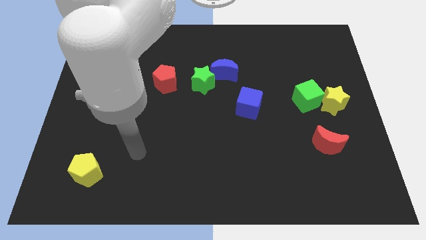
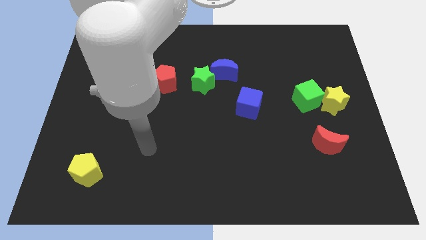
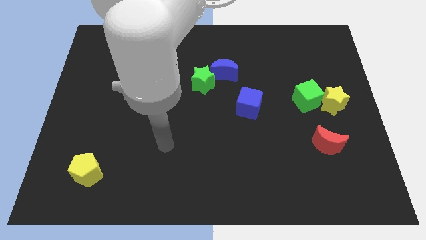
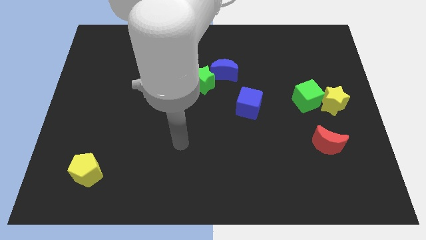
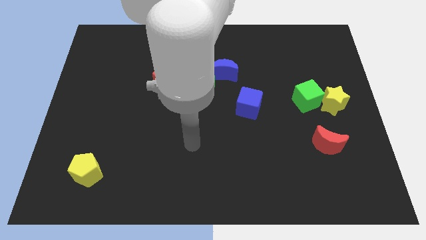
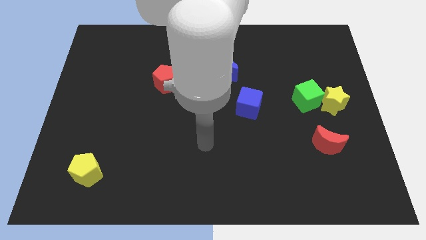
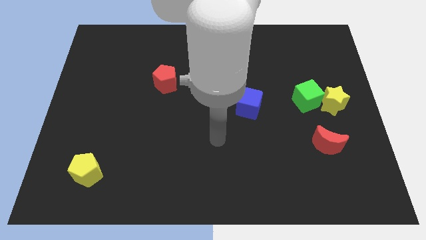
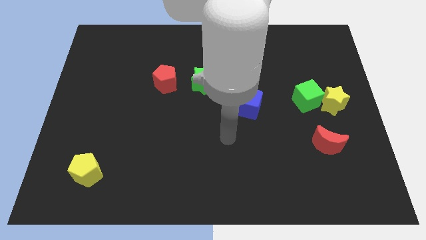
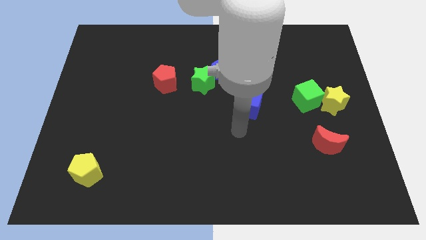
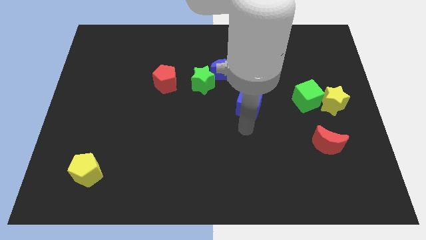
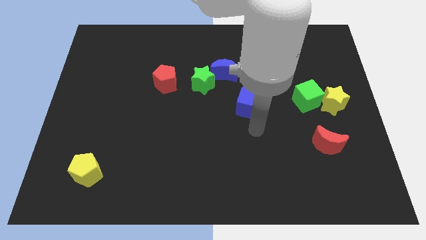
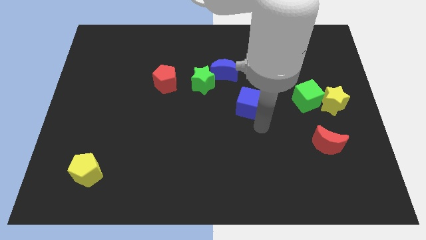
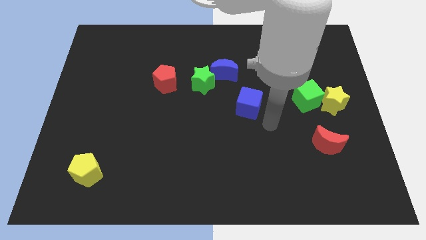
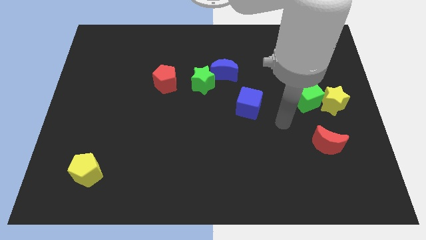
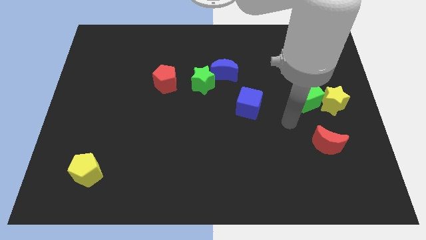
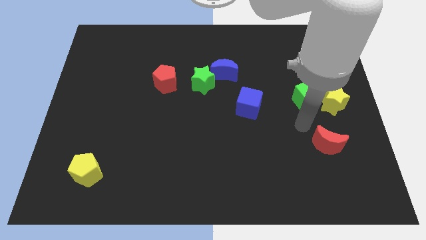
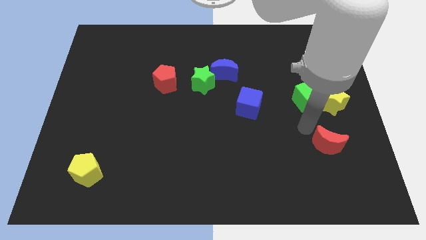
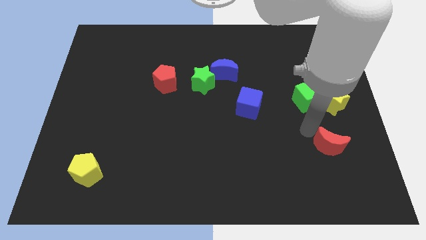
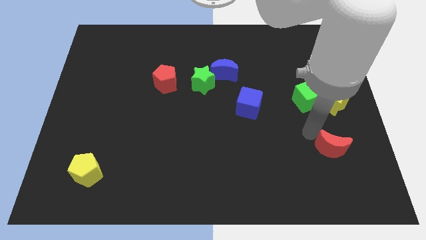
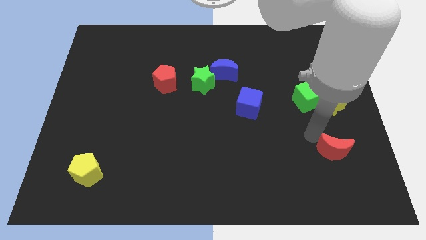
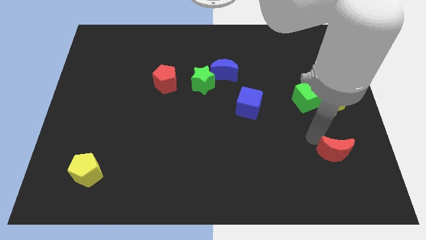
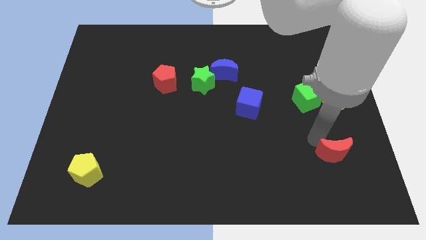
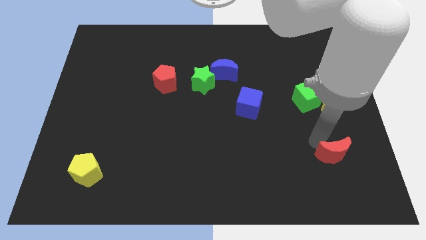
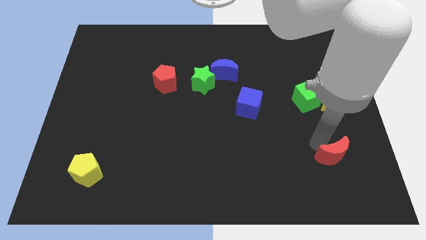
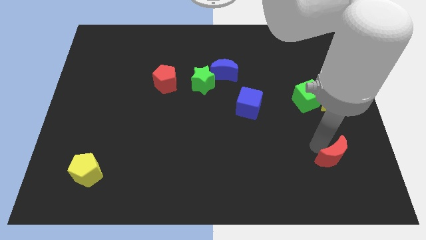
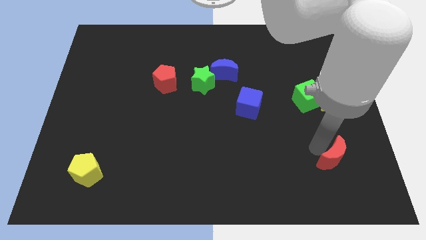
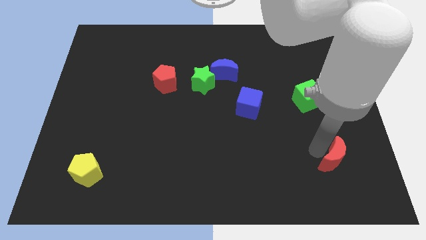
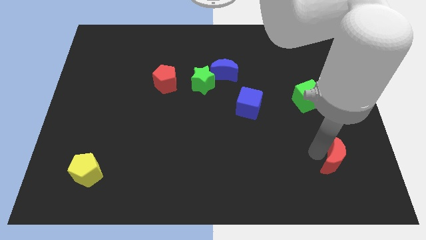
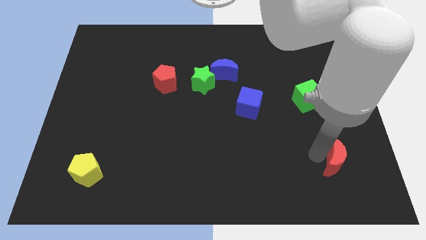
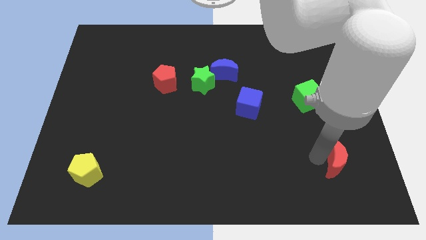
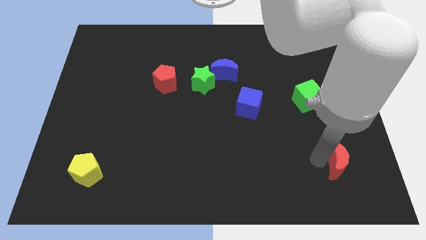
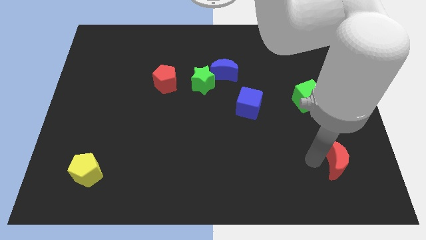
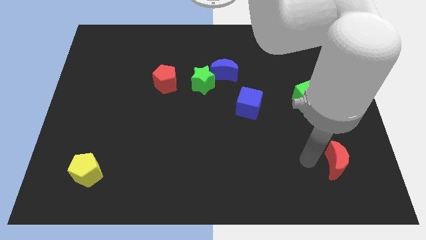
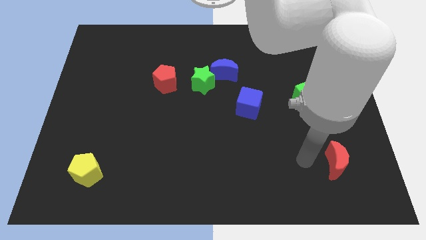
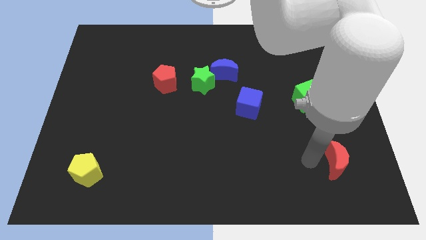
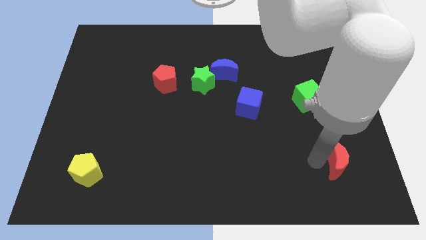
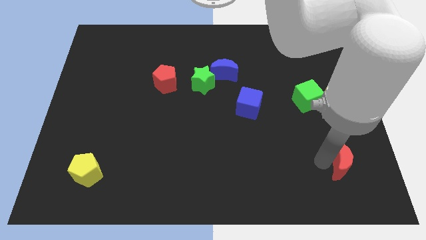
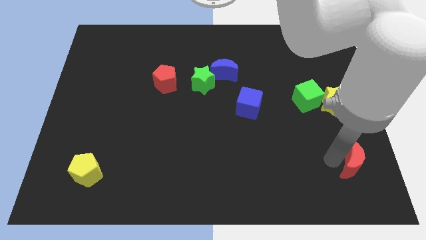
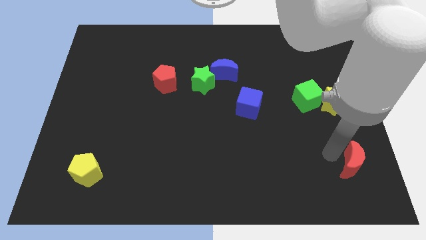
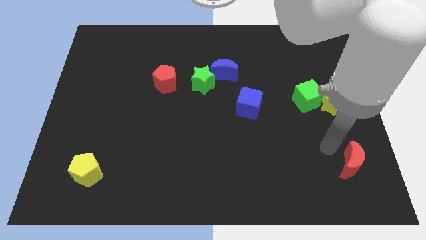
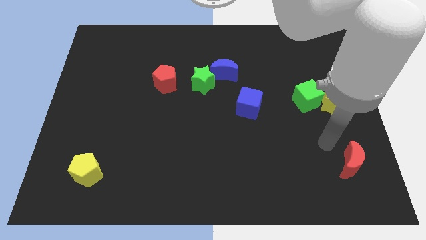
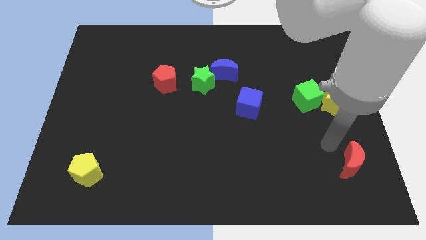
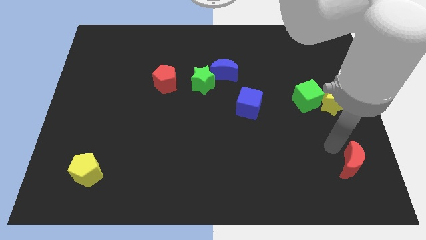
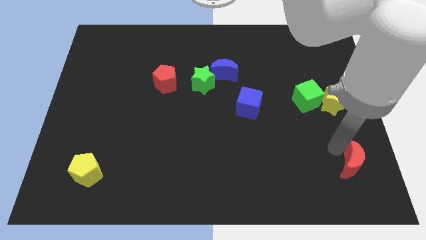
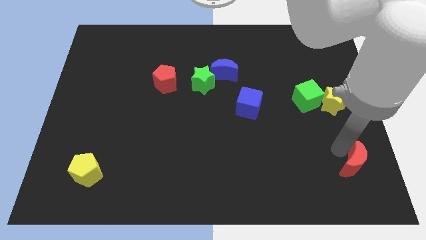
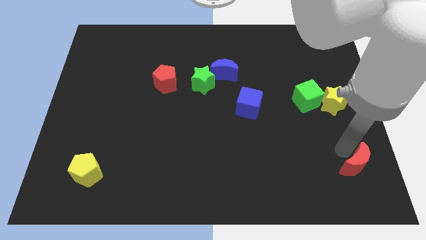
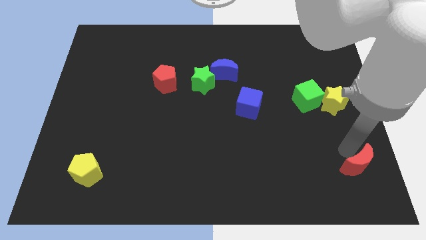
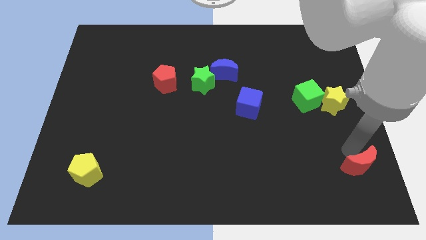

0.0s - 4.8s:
move the red moon to the bottom right

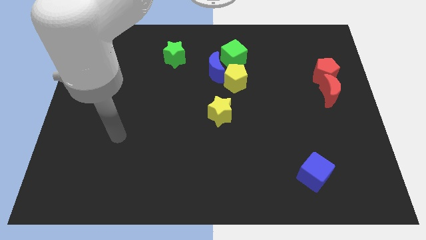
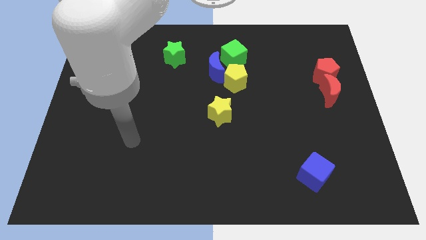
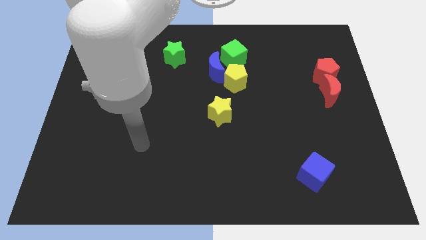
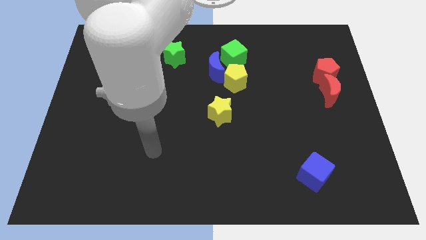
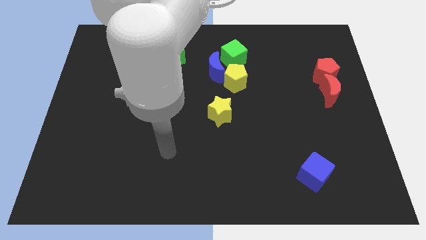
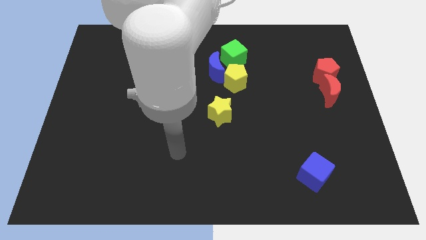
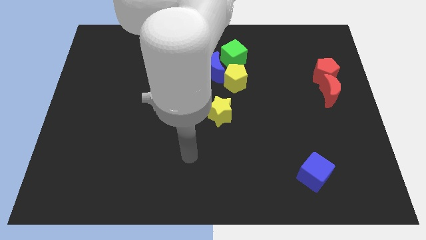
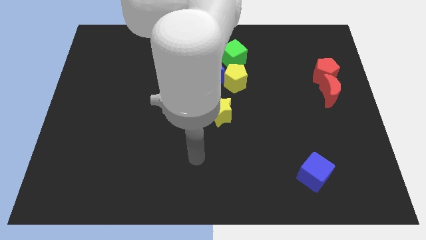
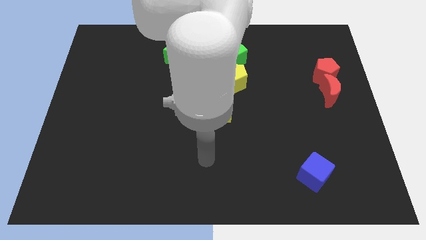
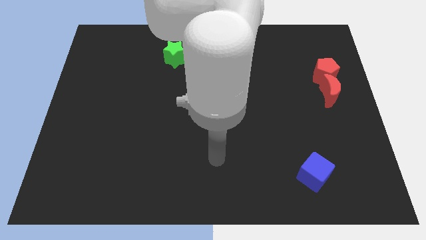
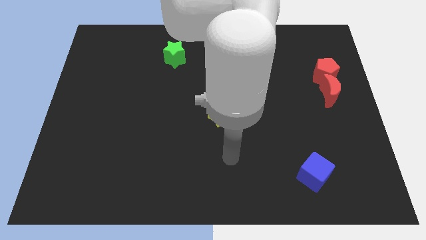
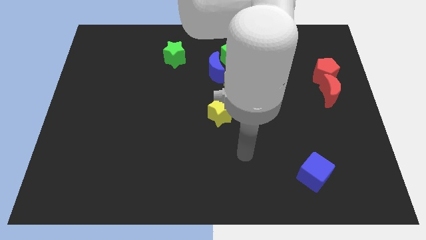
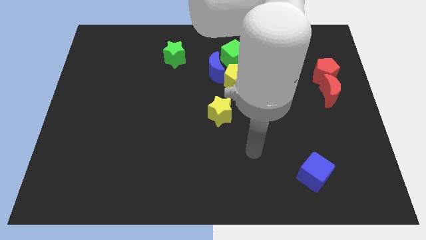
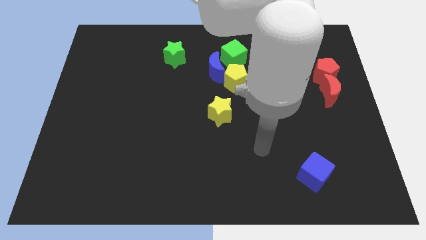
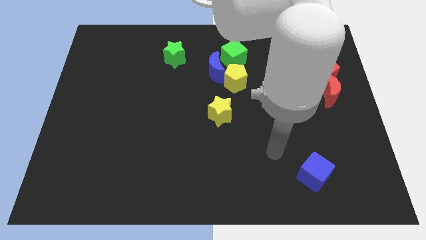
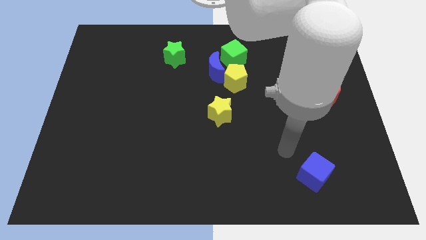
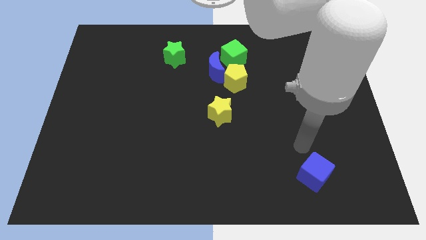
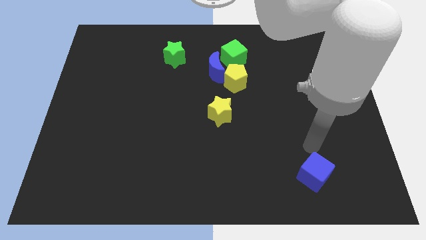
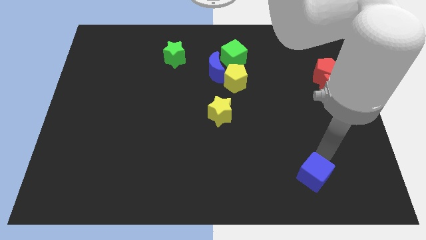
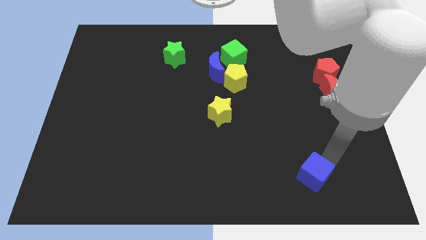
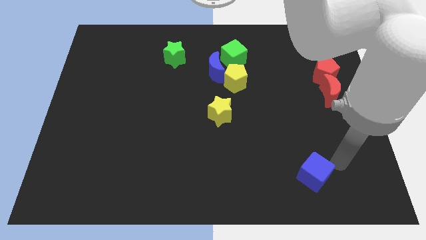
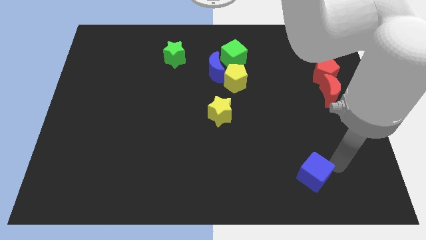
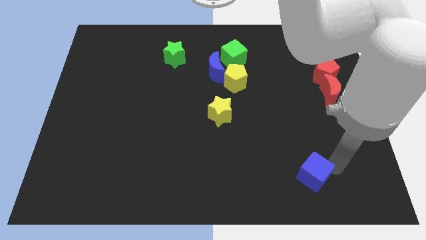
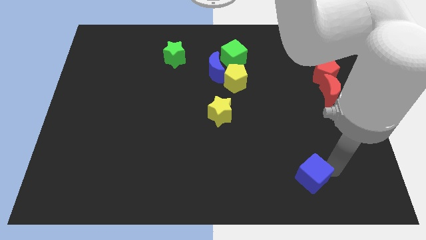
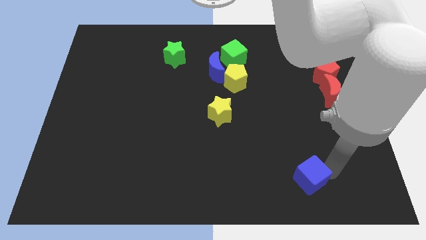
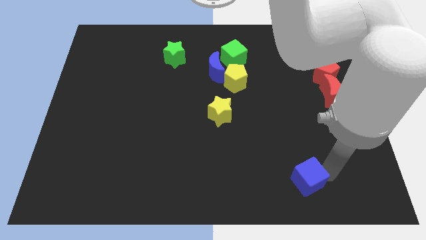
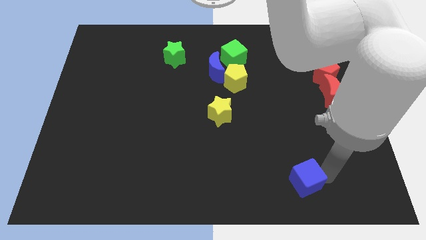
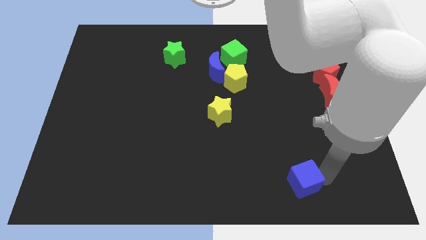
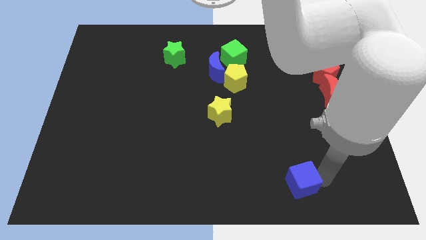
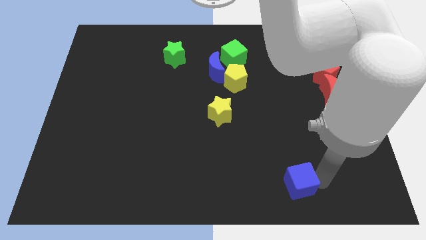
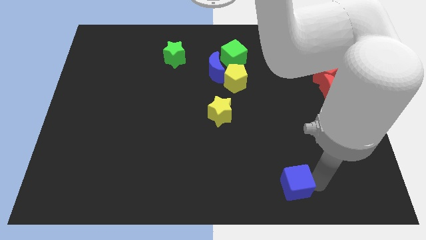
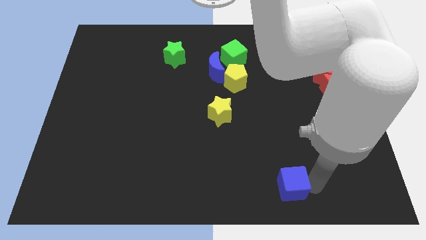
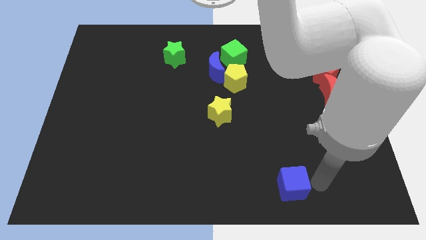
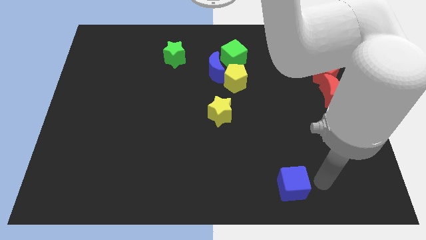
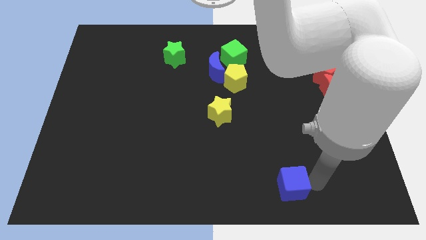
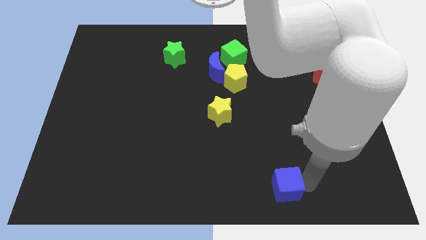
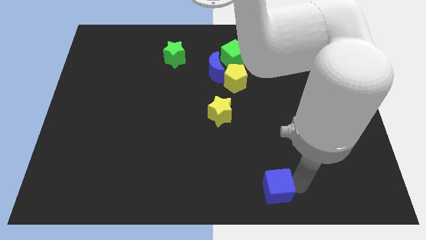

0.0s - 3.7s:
put the blue cube to the bottom
